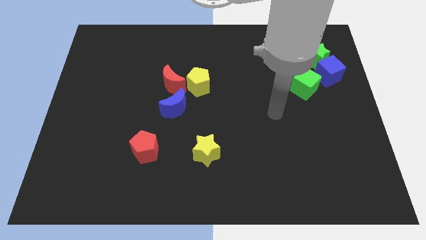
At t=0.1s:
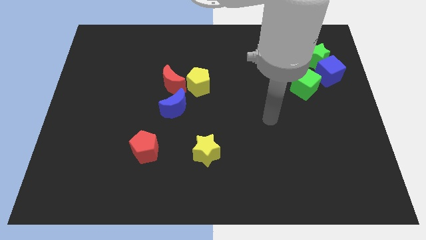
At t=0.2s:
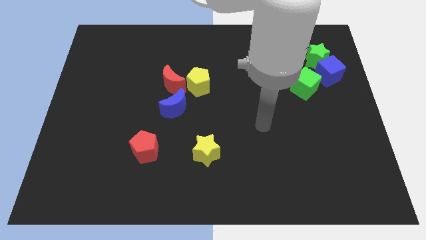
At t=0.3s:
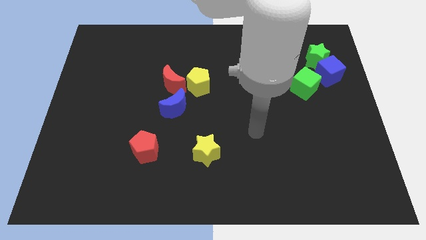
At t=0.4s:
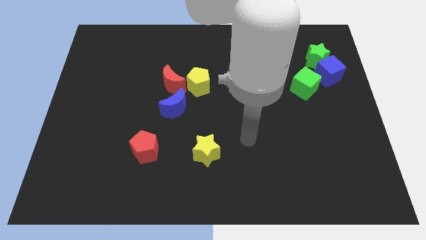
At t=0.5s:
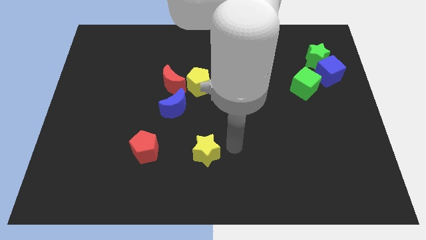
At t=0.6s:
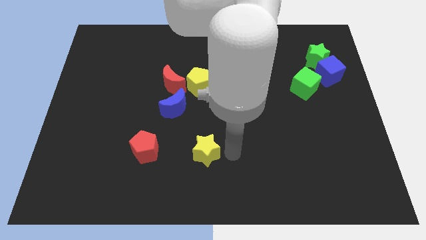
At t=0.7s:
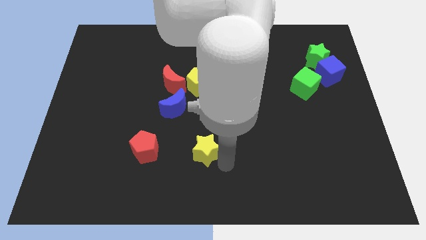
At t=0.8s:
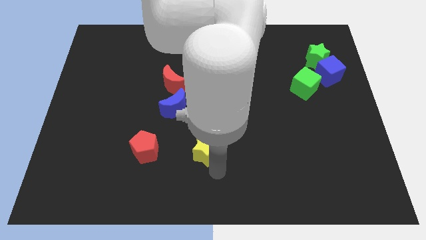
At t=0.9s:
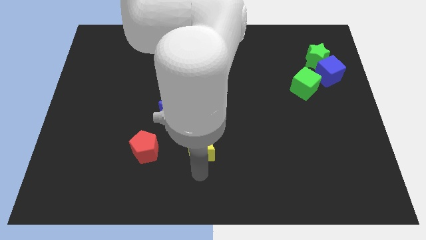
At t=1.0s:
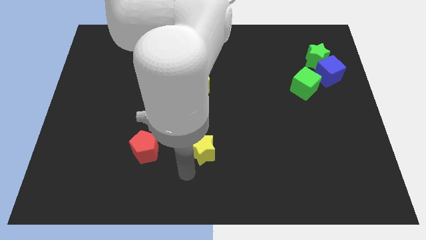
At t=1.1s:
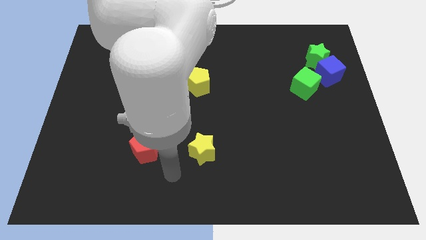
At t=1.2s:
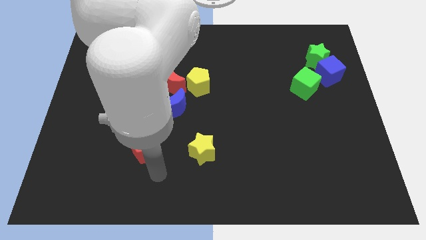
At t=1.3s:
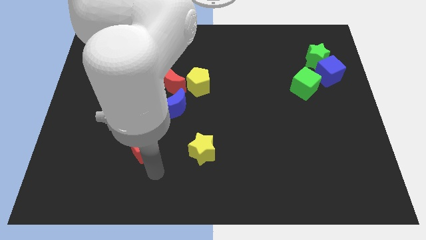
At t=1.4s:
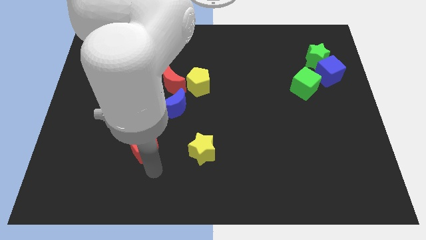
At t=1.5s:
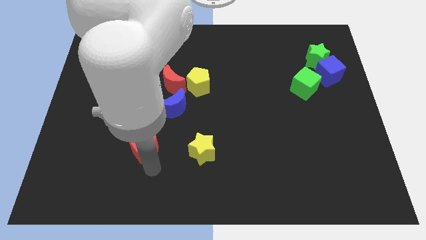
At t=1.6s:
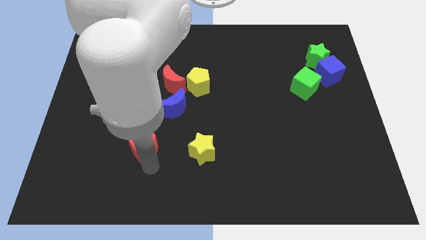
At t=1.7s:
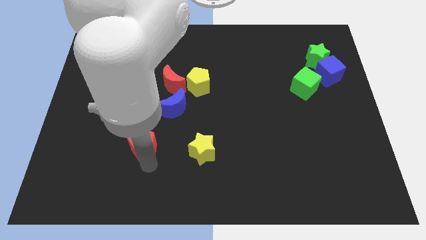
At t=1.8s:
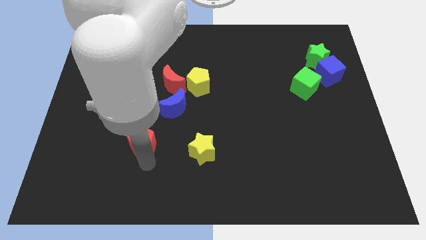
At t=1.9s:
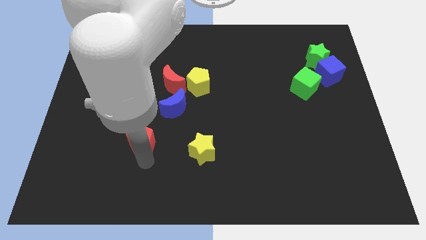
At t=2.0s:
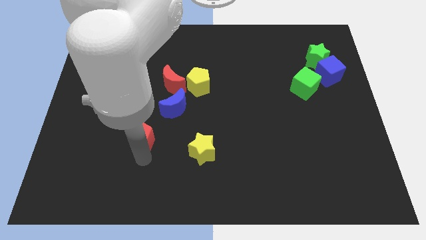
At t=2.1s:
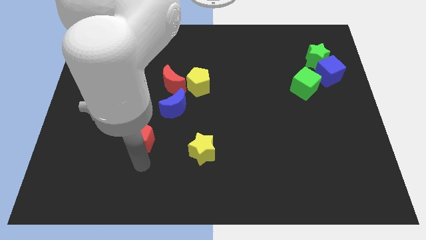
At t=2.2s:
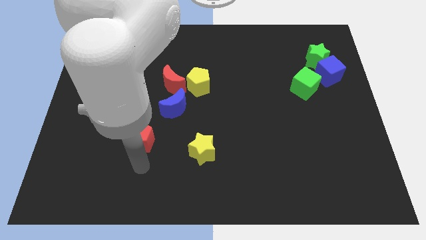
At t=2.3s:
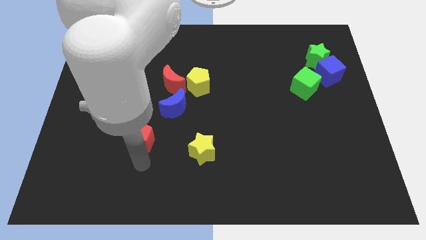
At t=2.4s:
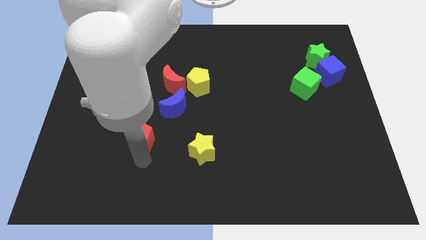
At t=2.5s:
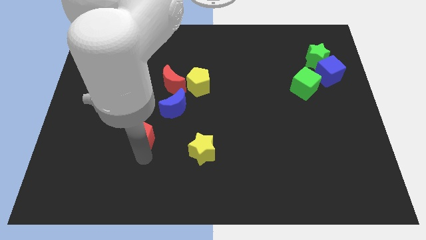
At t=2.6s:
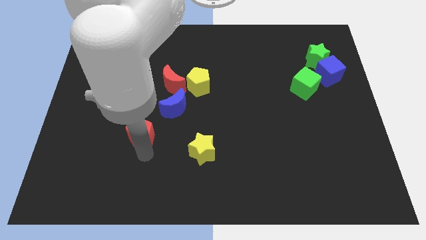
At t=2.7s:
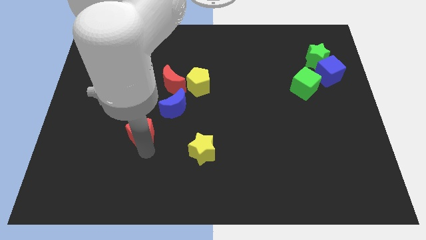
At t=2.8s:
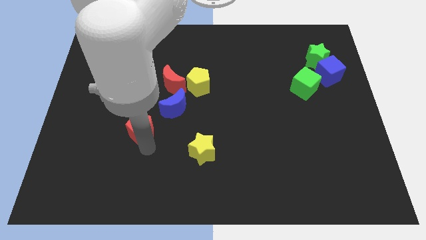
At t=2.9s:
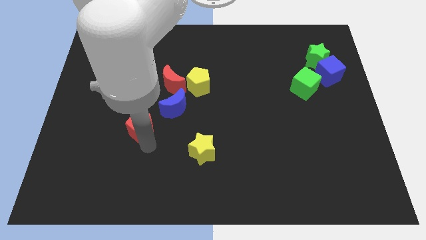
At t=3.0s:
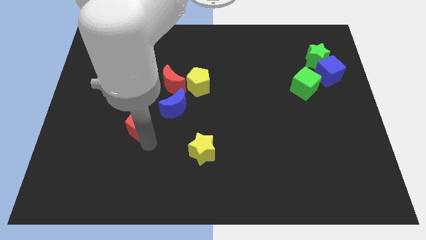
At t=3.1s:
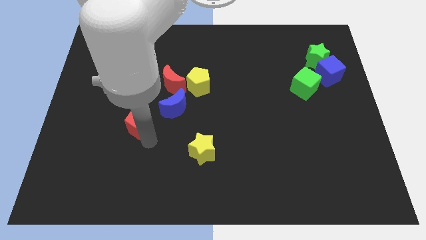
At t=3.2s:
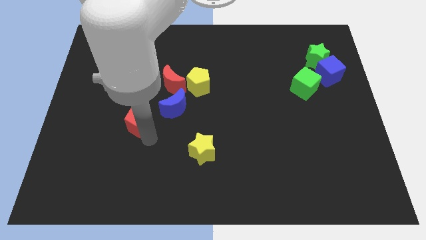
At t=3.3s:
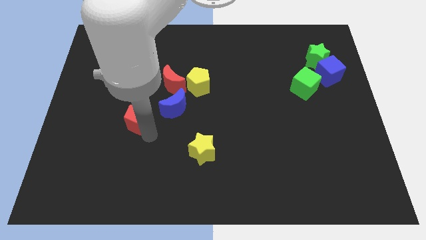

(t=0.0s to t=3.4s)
slightly push the red pentagon upwards

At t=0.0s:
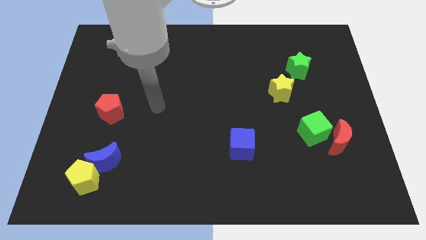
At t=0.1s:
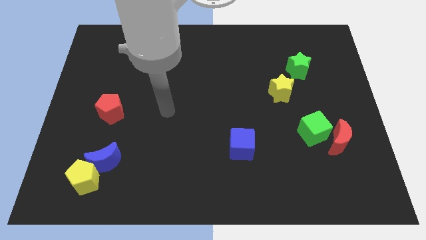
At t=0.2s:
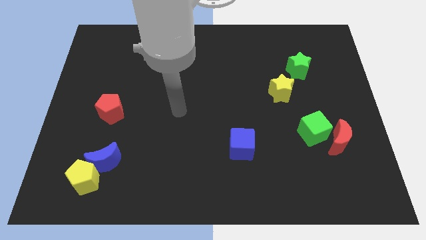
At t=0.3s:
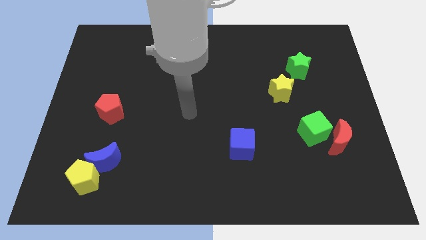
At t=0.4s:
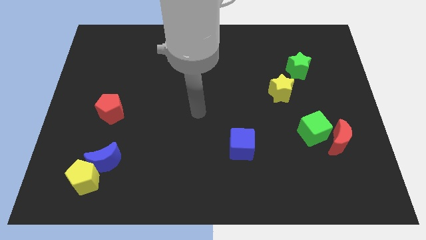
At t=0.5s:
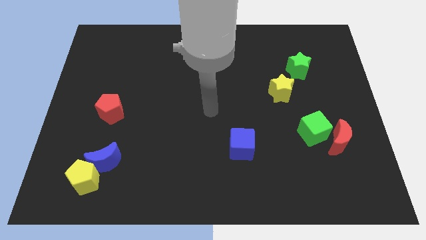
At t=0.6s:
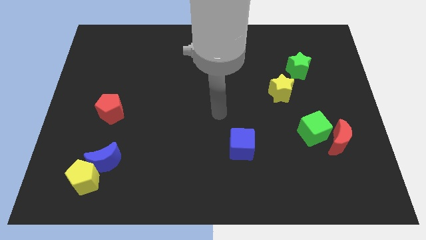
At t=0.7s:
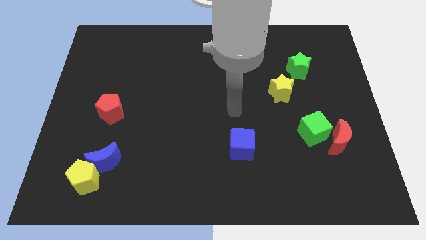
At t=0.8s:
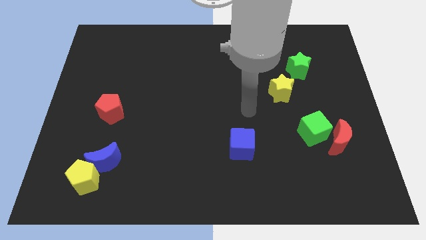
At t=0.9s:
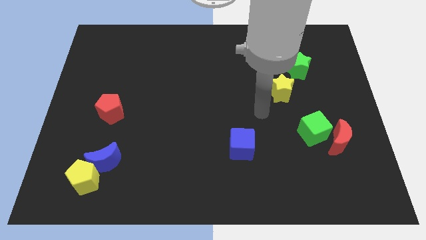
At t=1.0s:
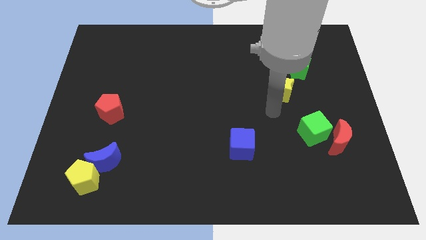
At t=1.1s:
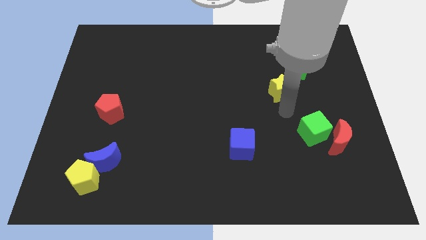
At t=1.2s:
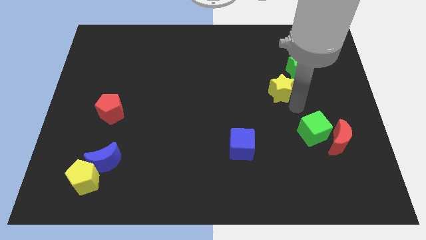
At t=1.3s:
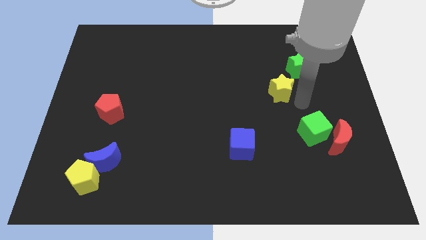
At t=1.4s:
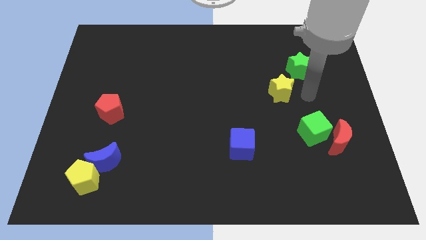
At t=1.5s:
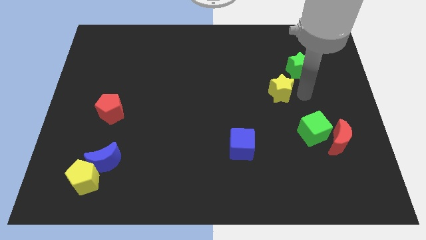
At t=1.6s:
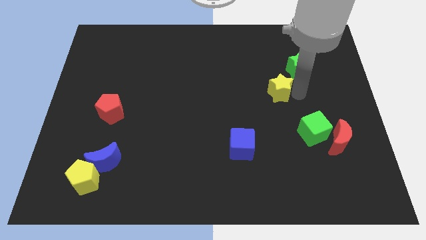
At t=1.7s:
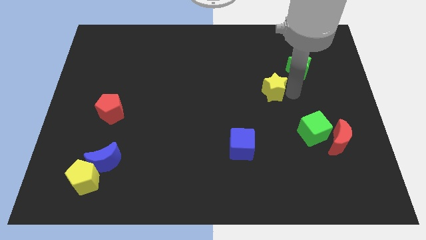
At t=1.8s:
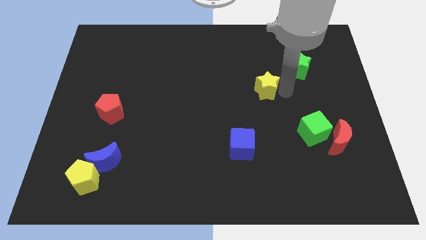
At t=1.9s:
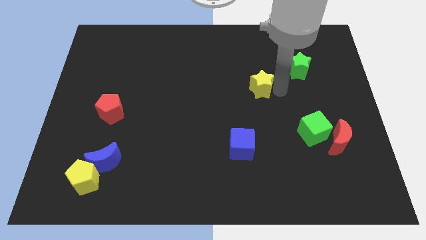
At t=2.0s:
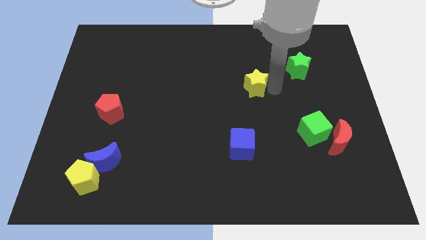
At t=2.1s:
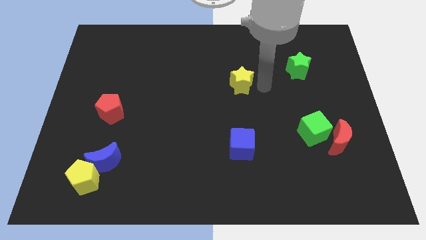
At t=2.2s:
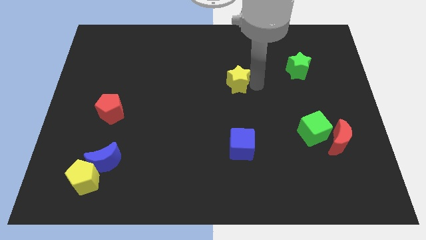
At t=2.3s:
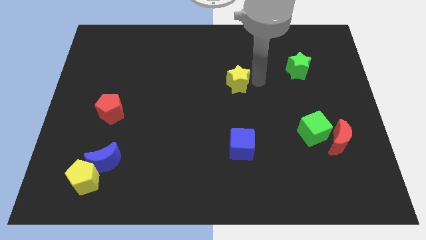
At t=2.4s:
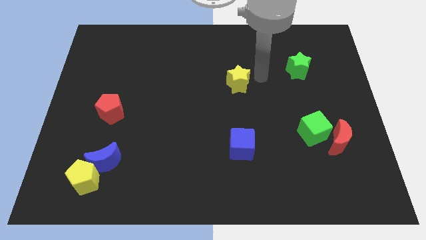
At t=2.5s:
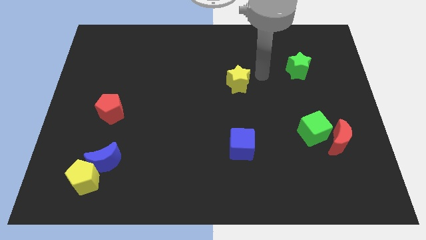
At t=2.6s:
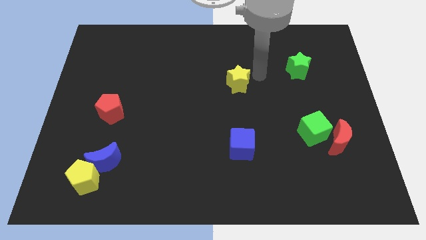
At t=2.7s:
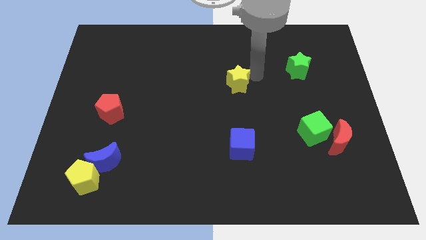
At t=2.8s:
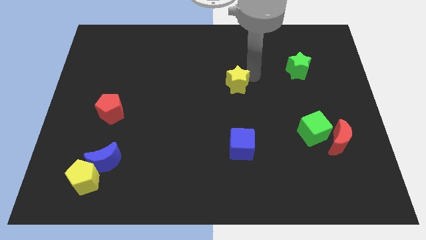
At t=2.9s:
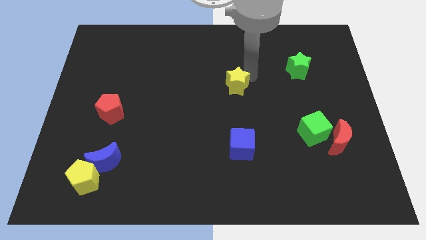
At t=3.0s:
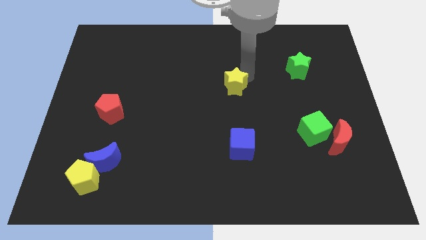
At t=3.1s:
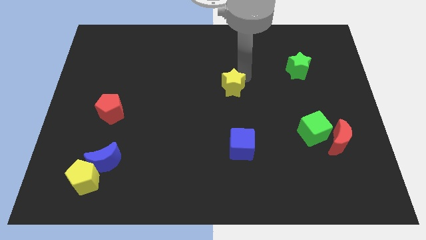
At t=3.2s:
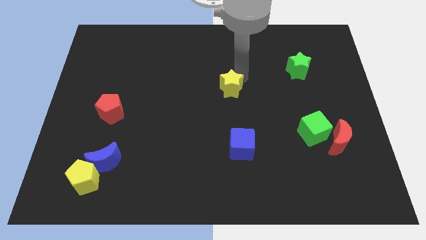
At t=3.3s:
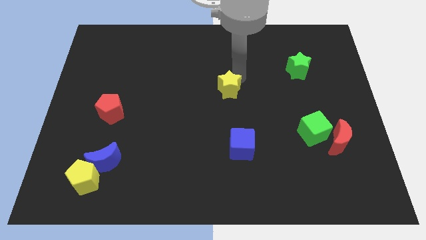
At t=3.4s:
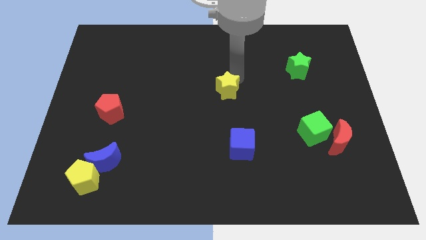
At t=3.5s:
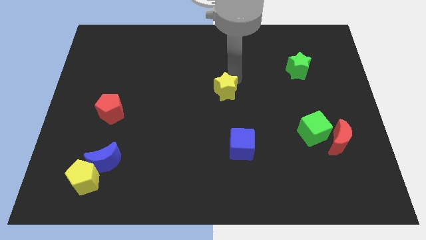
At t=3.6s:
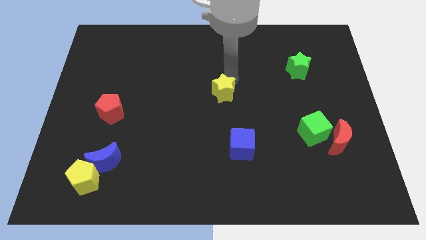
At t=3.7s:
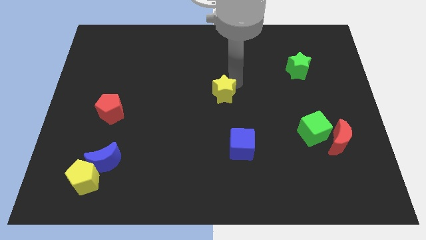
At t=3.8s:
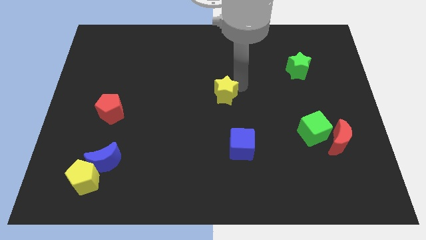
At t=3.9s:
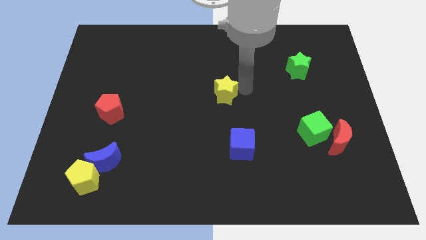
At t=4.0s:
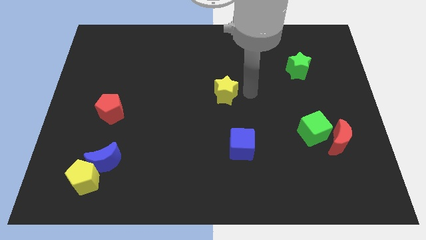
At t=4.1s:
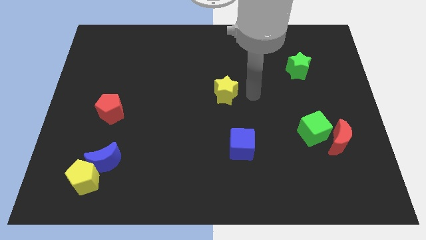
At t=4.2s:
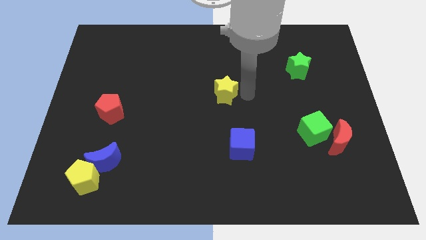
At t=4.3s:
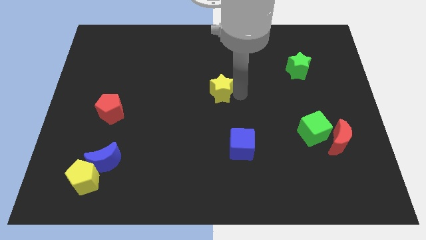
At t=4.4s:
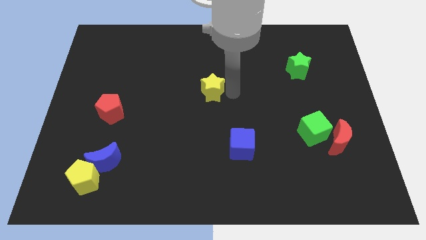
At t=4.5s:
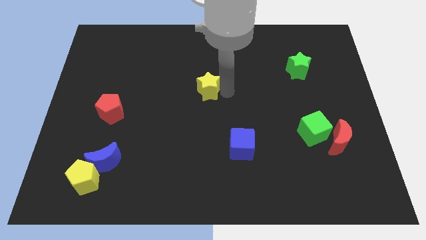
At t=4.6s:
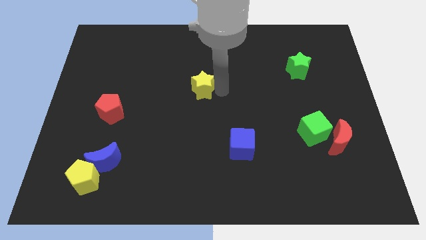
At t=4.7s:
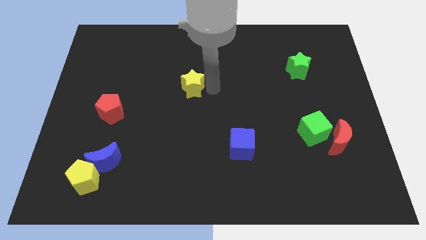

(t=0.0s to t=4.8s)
move the yellow star left
